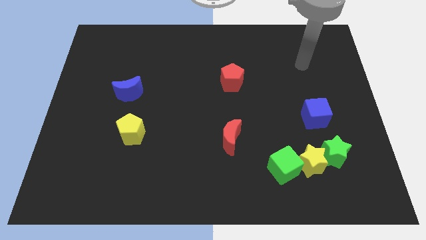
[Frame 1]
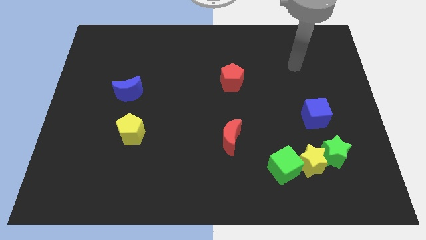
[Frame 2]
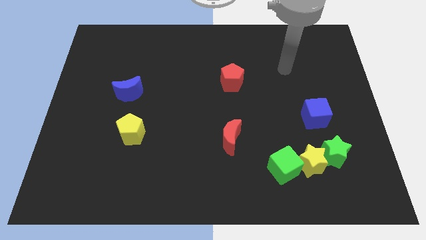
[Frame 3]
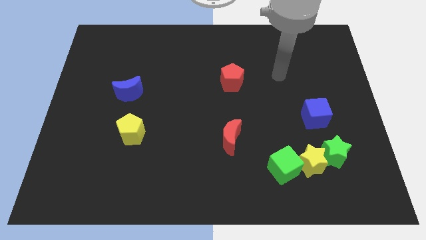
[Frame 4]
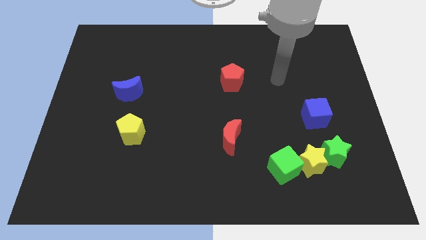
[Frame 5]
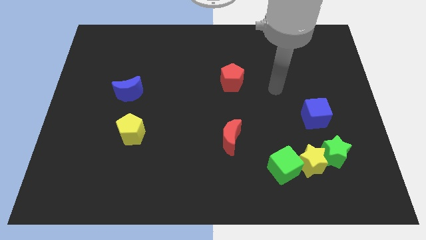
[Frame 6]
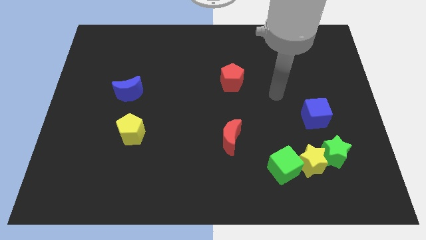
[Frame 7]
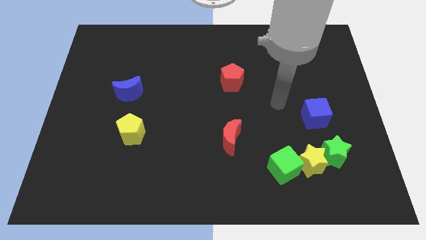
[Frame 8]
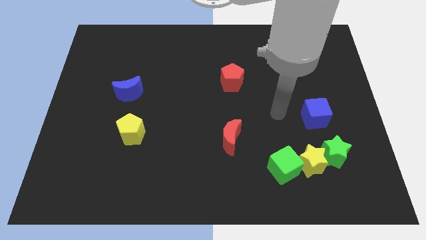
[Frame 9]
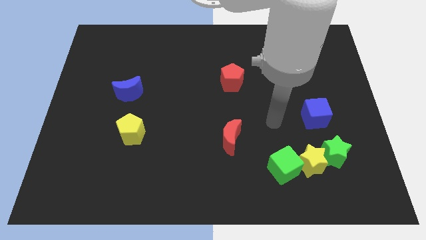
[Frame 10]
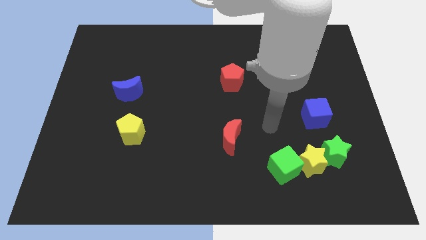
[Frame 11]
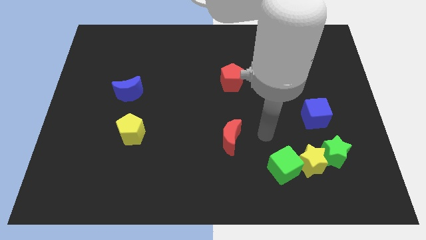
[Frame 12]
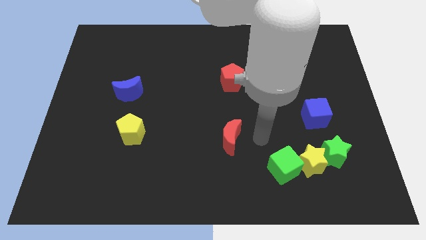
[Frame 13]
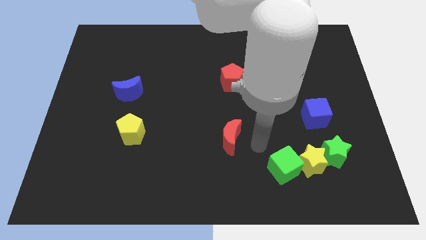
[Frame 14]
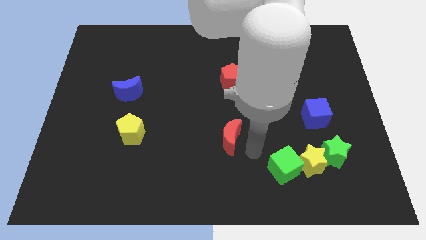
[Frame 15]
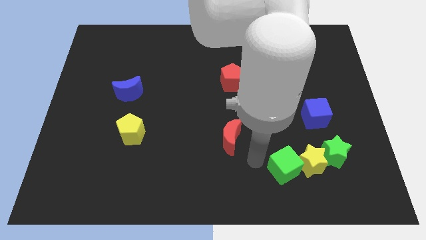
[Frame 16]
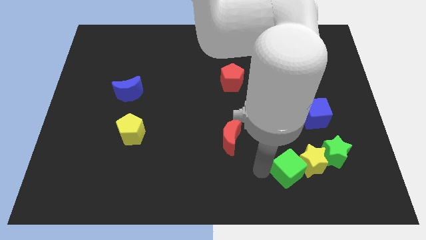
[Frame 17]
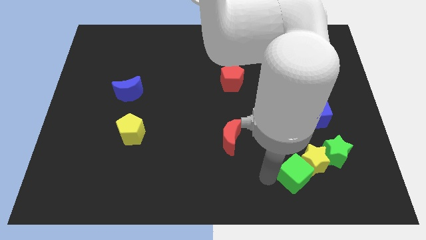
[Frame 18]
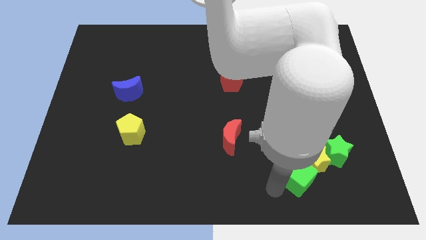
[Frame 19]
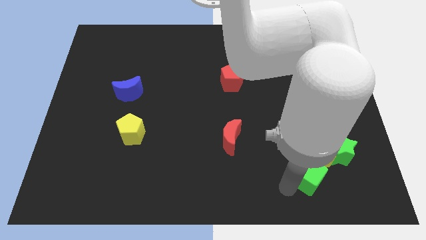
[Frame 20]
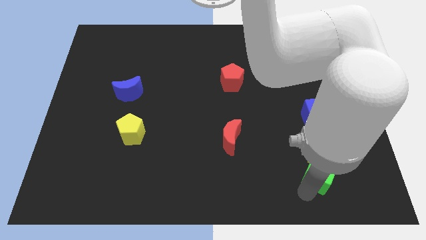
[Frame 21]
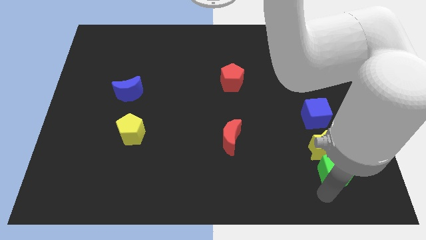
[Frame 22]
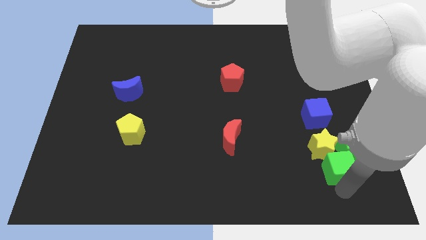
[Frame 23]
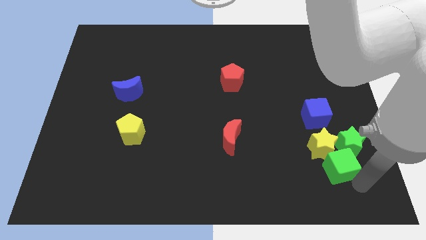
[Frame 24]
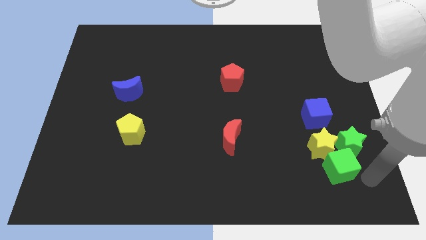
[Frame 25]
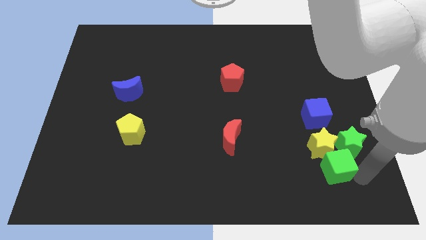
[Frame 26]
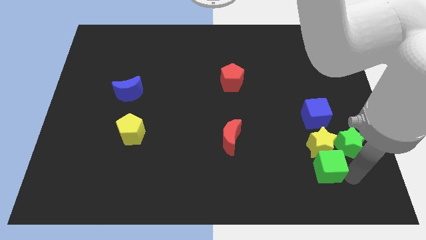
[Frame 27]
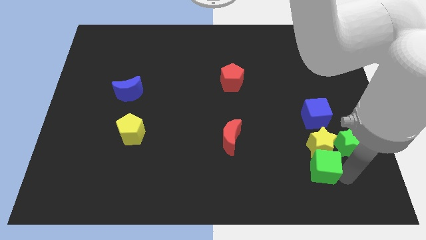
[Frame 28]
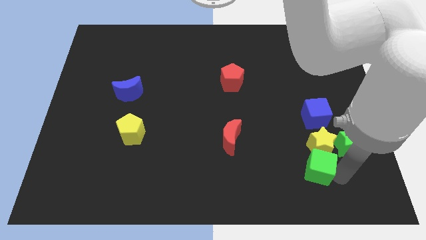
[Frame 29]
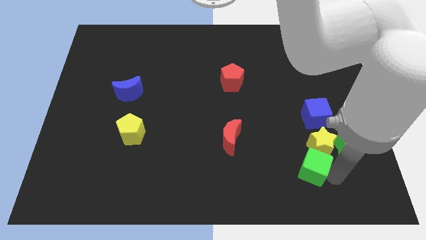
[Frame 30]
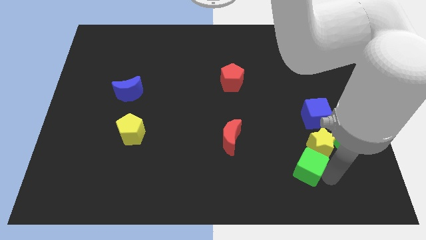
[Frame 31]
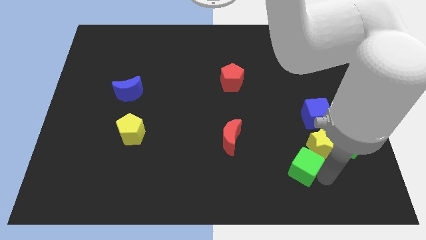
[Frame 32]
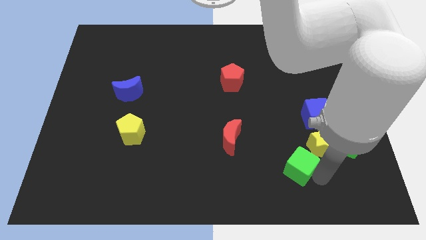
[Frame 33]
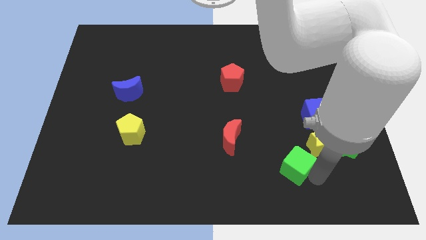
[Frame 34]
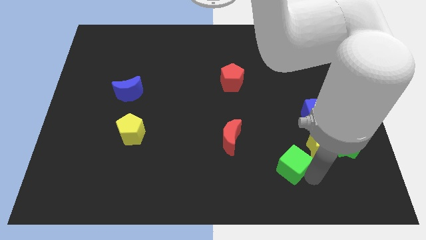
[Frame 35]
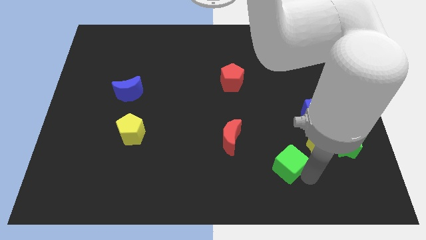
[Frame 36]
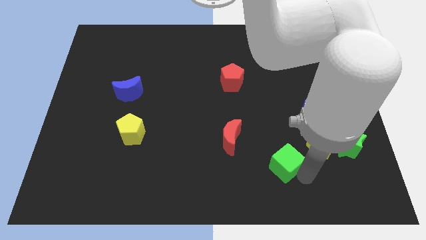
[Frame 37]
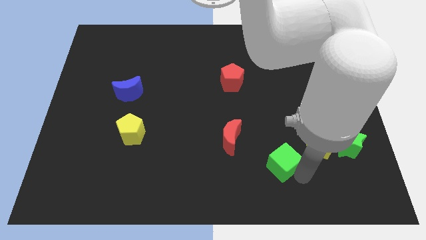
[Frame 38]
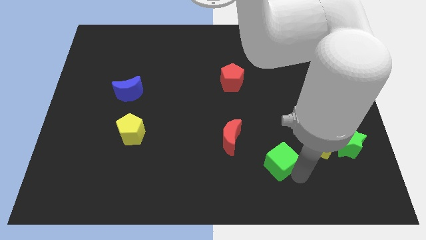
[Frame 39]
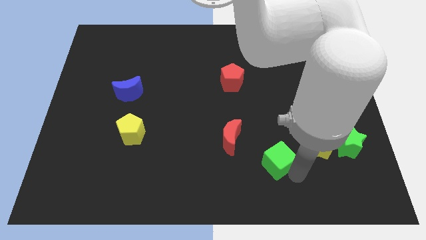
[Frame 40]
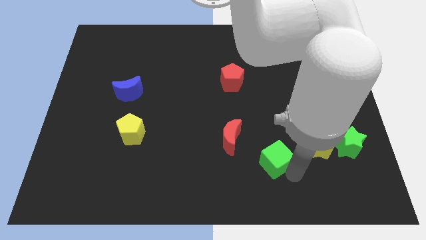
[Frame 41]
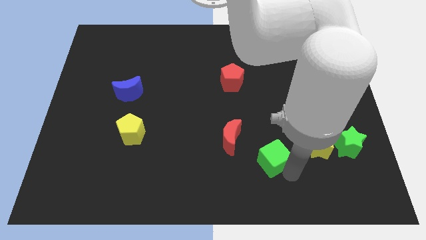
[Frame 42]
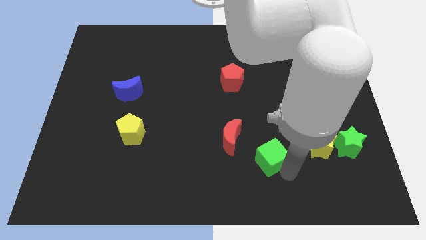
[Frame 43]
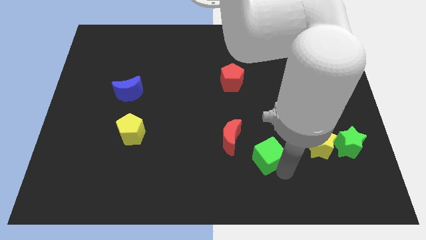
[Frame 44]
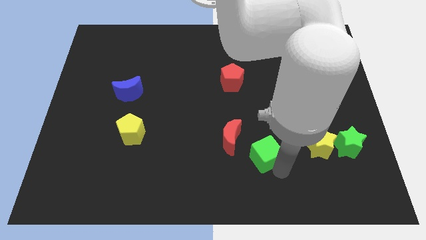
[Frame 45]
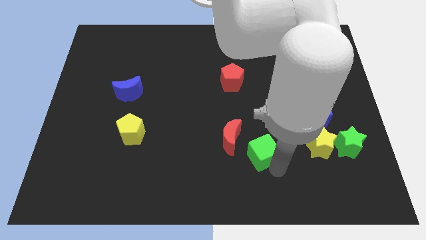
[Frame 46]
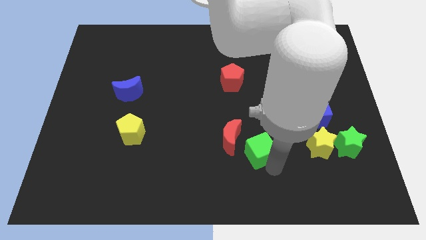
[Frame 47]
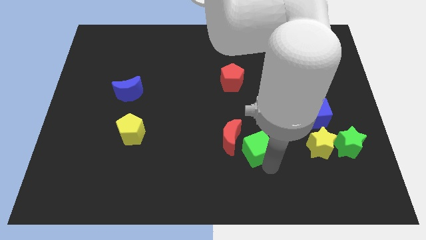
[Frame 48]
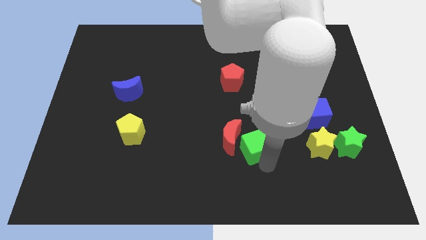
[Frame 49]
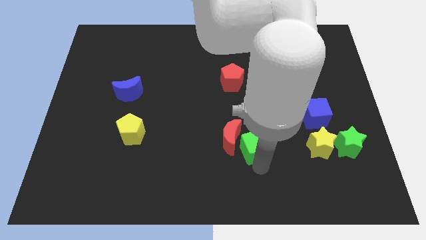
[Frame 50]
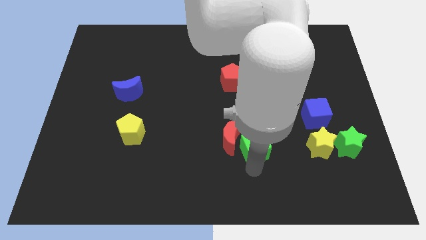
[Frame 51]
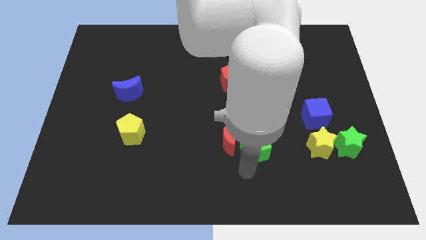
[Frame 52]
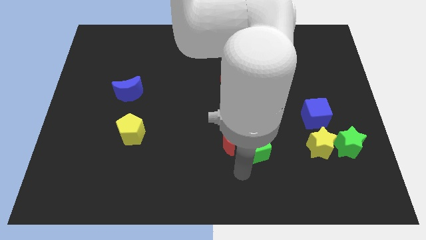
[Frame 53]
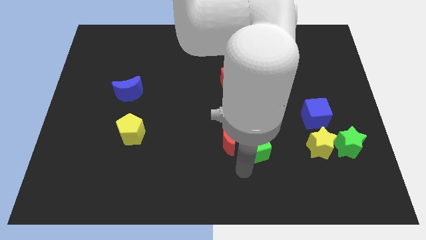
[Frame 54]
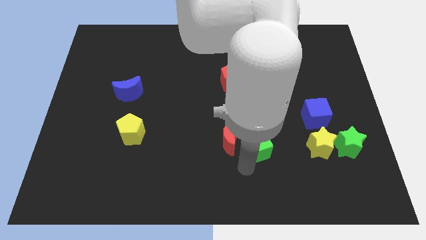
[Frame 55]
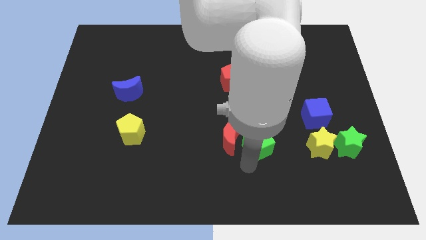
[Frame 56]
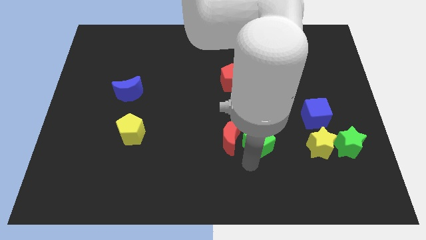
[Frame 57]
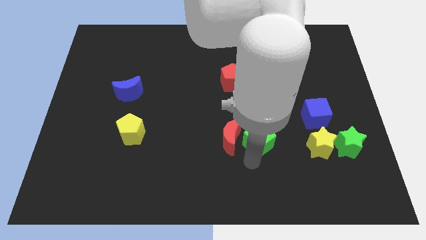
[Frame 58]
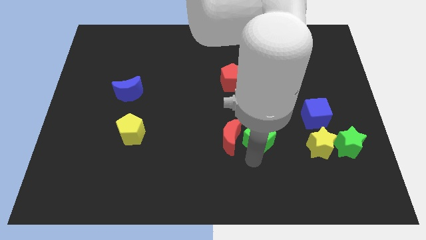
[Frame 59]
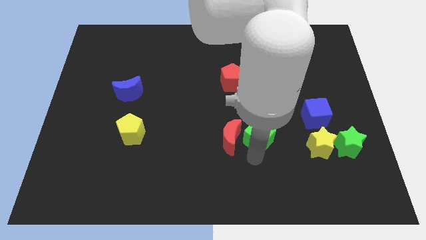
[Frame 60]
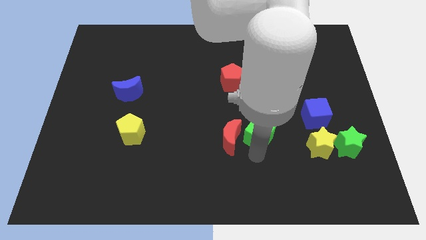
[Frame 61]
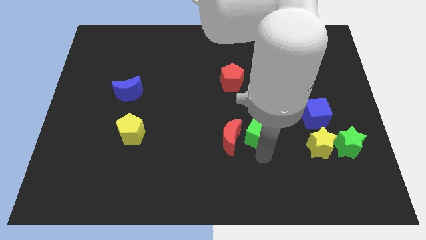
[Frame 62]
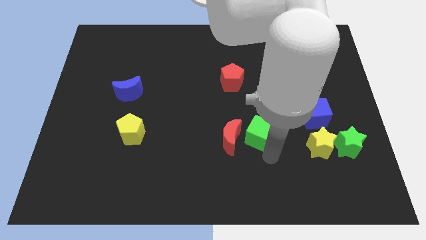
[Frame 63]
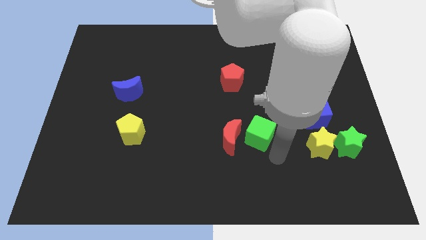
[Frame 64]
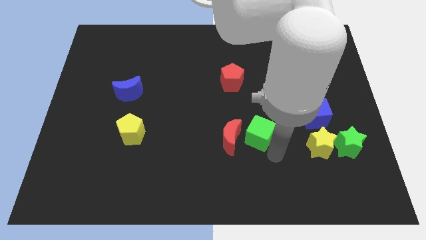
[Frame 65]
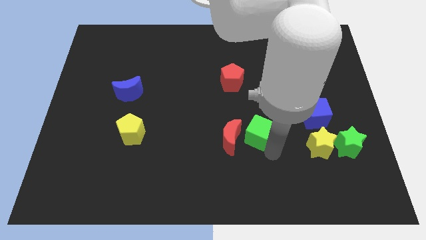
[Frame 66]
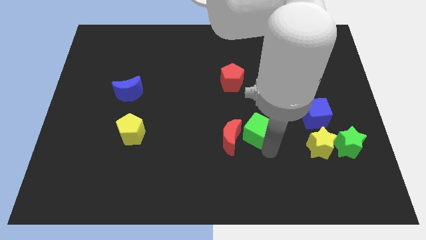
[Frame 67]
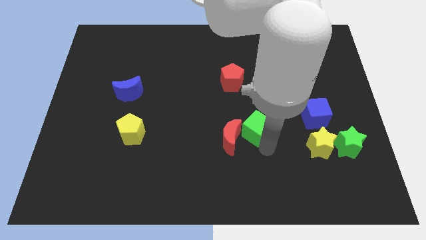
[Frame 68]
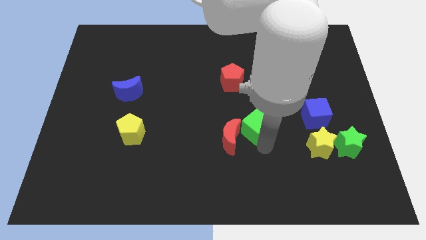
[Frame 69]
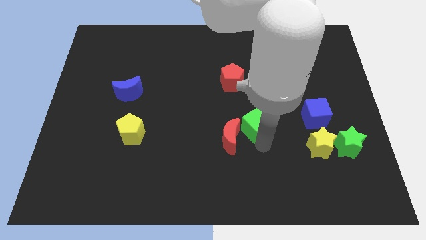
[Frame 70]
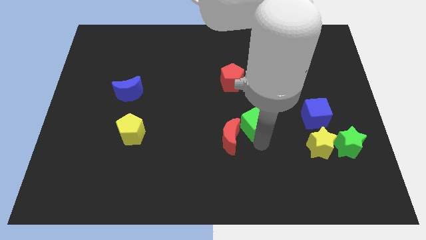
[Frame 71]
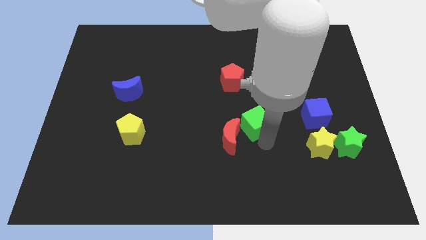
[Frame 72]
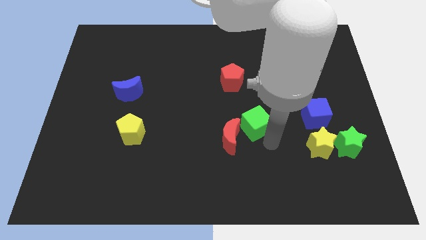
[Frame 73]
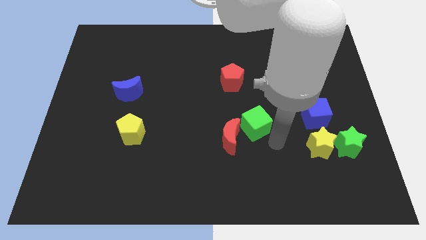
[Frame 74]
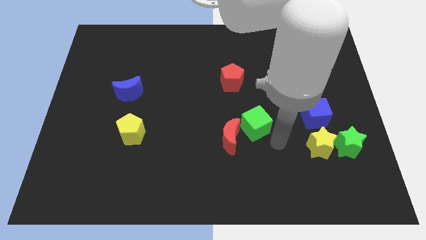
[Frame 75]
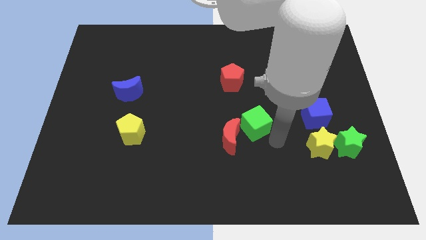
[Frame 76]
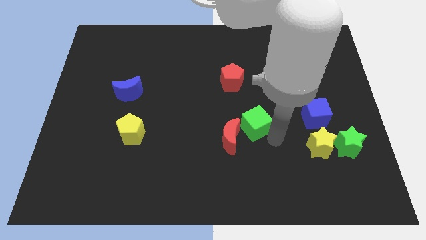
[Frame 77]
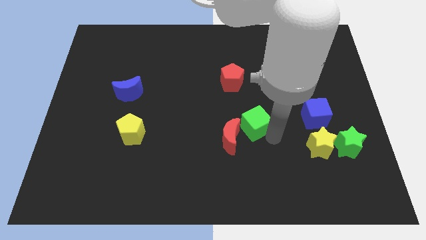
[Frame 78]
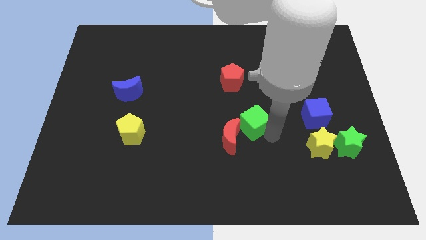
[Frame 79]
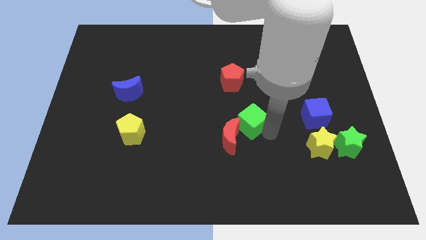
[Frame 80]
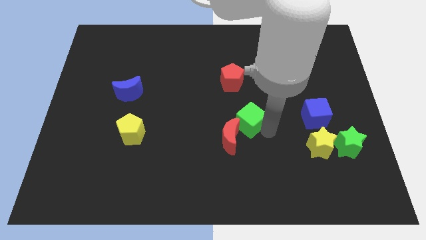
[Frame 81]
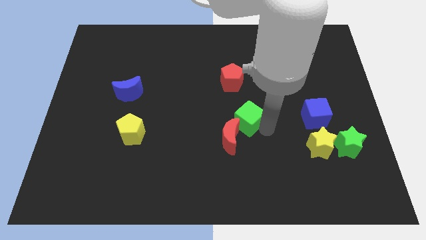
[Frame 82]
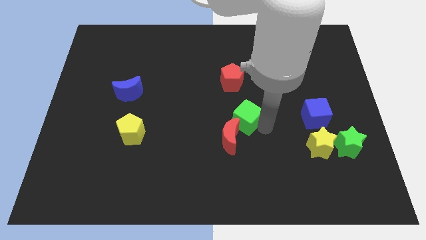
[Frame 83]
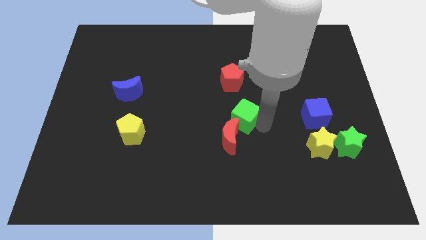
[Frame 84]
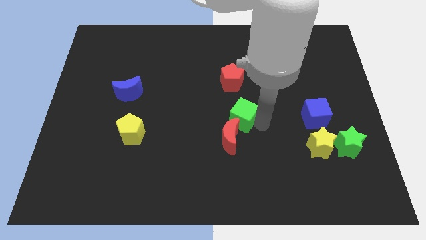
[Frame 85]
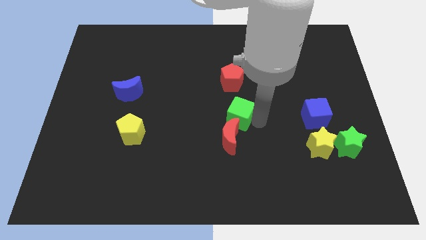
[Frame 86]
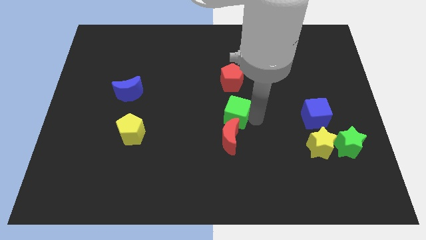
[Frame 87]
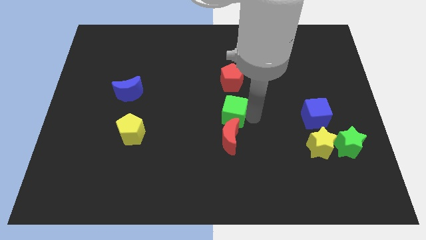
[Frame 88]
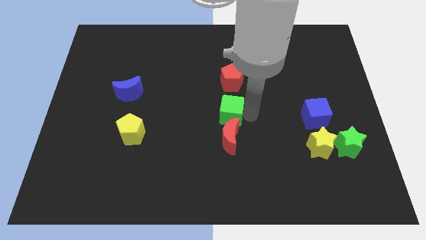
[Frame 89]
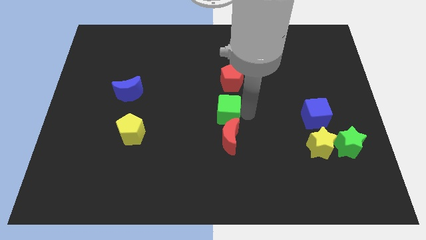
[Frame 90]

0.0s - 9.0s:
move the green cube diagonally up and to the left of the red moon
